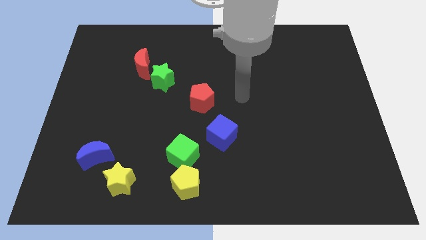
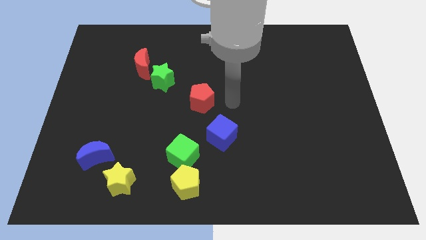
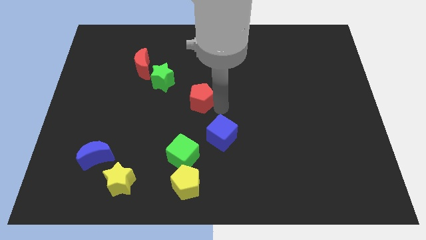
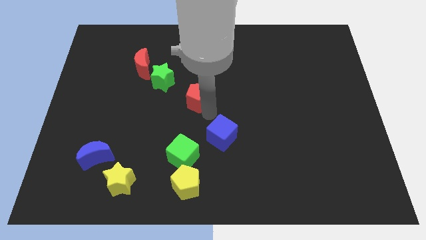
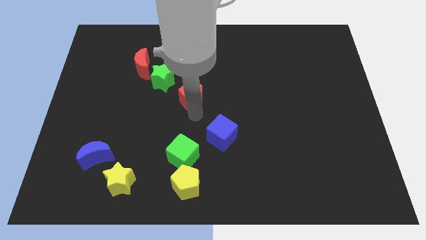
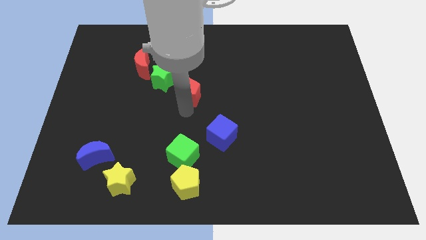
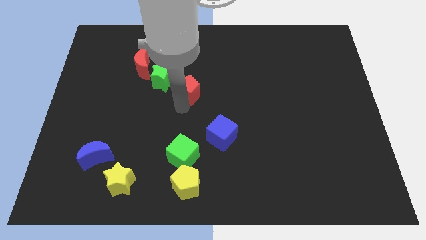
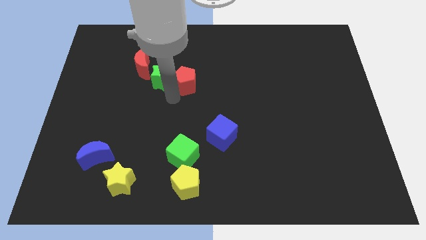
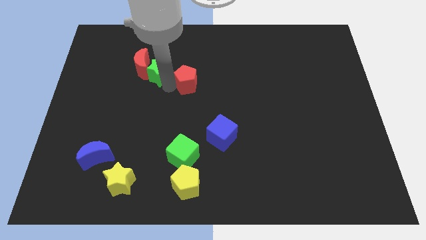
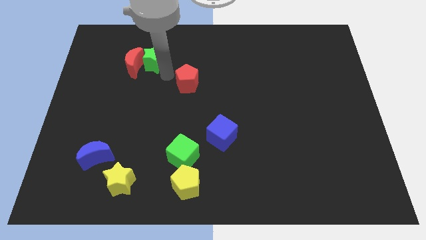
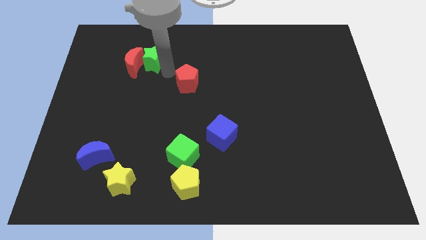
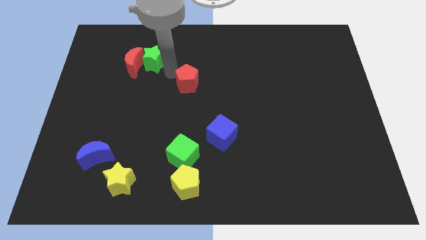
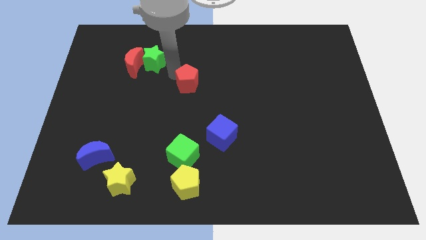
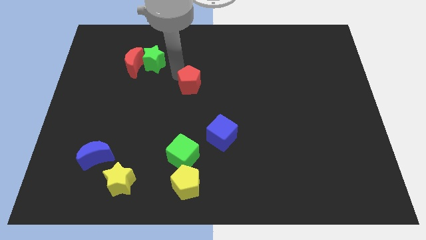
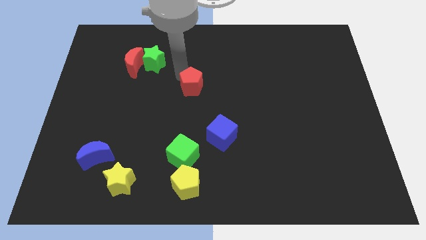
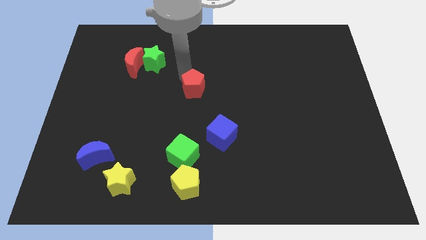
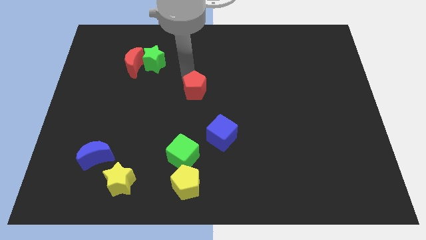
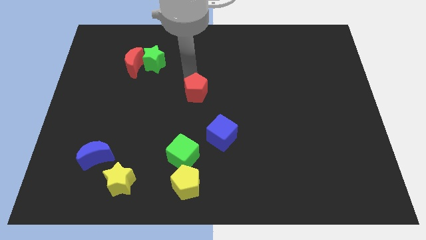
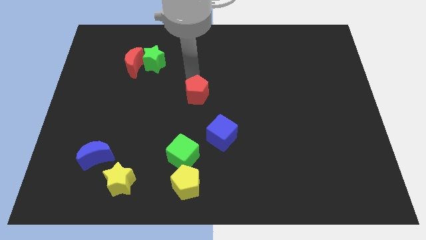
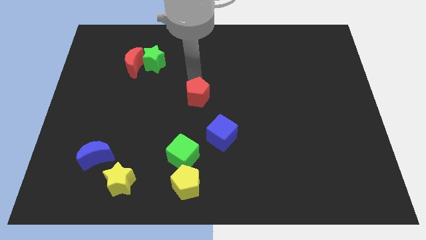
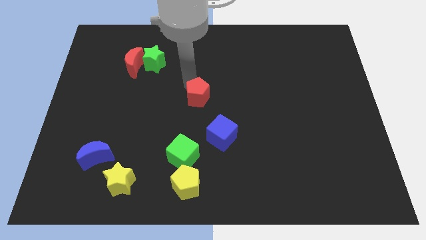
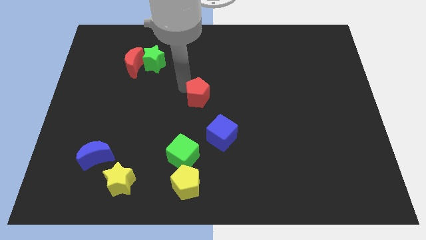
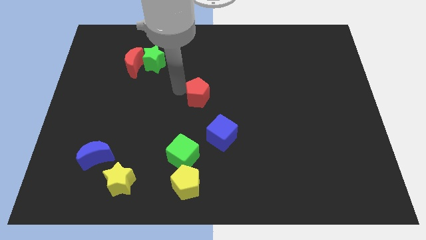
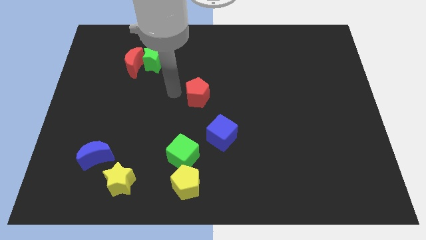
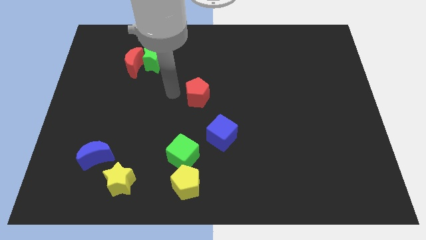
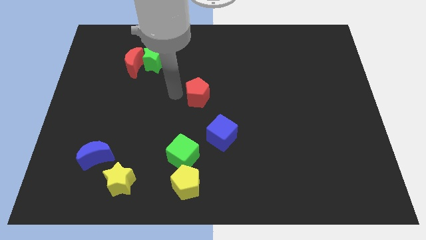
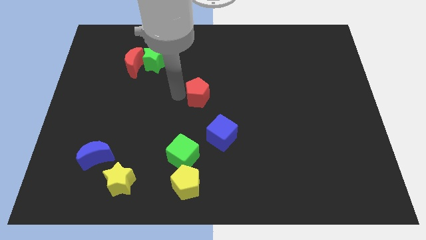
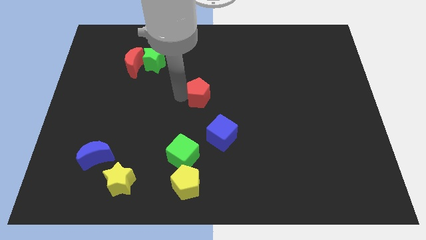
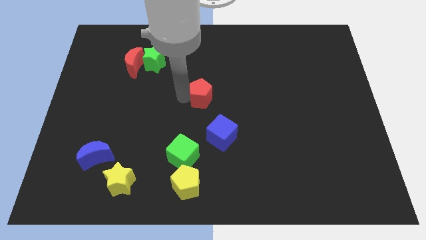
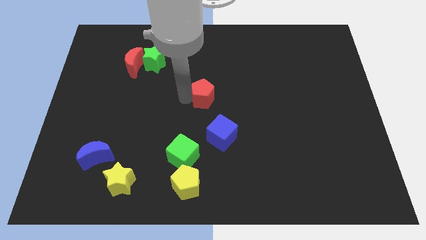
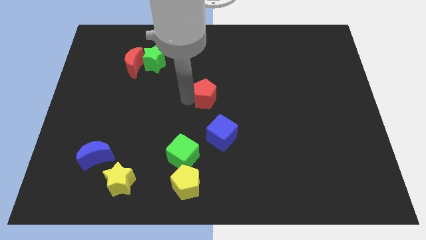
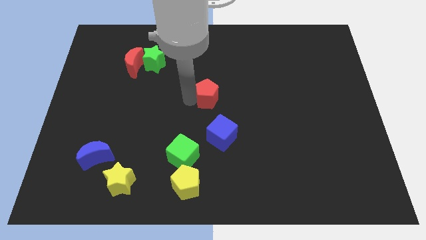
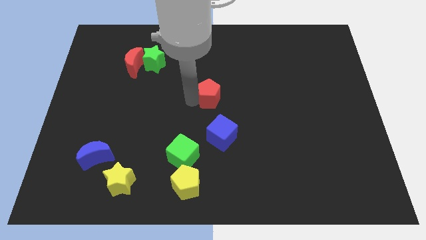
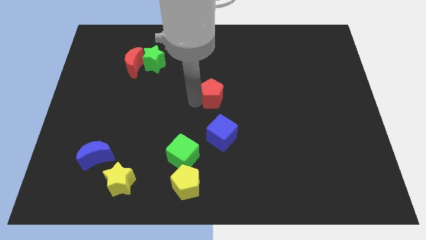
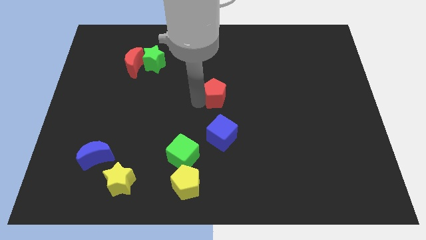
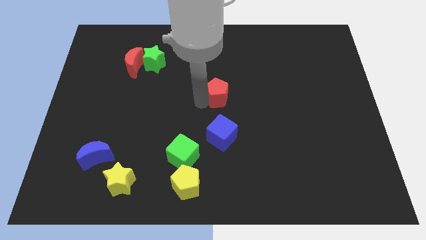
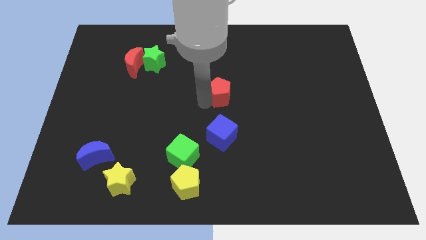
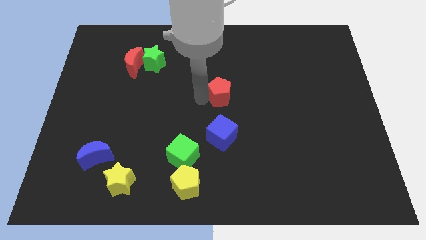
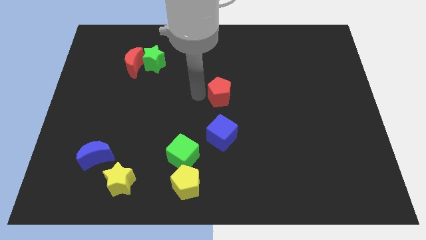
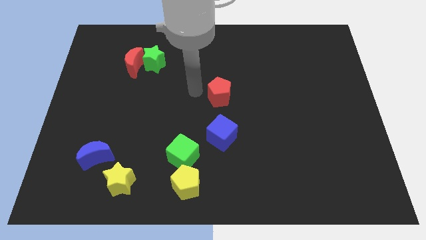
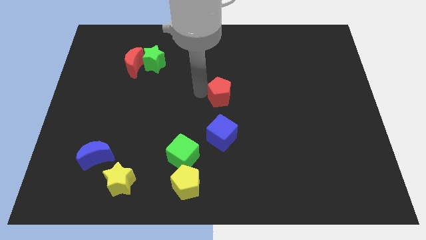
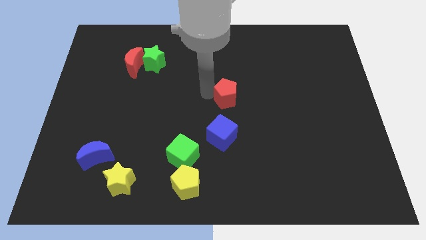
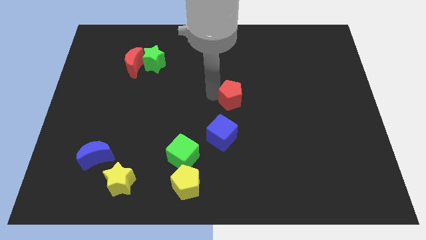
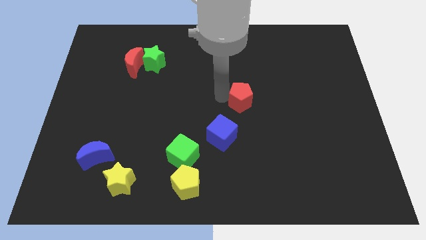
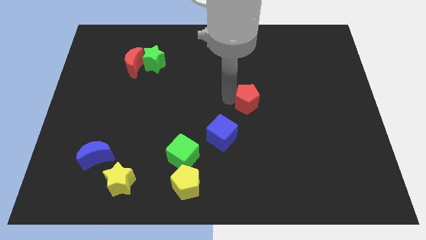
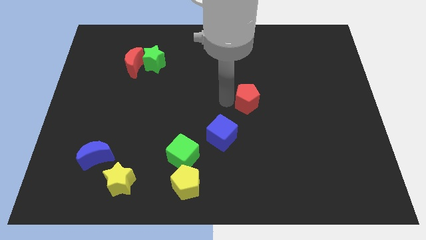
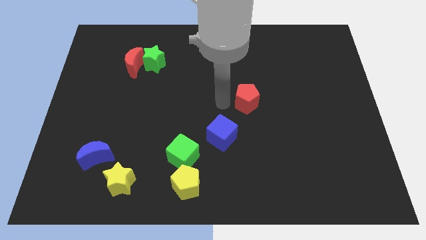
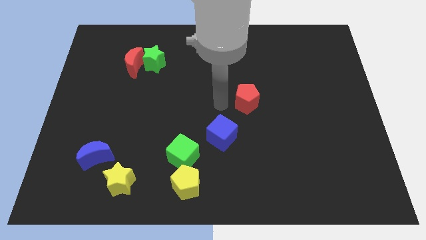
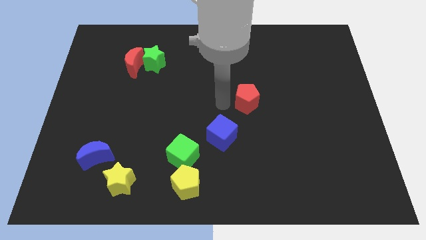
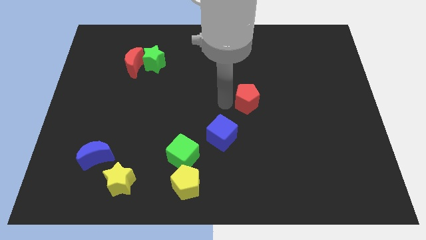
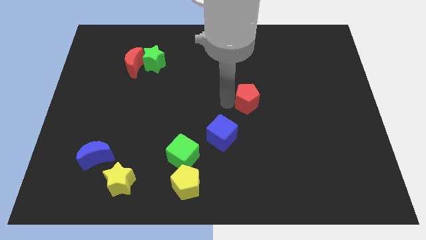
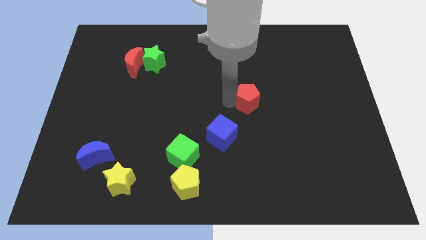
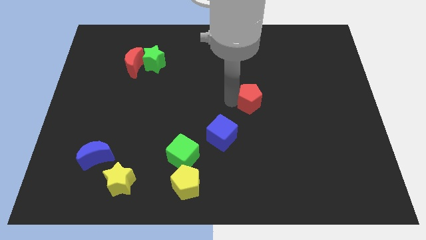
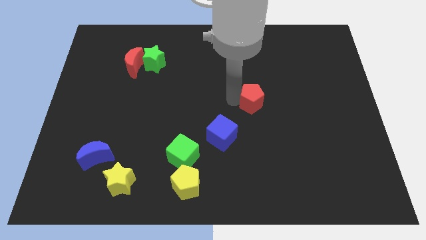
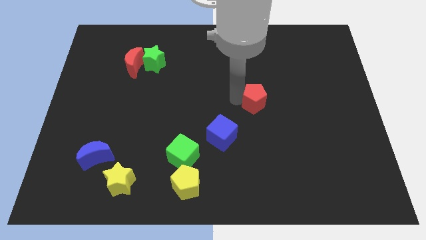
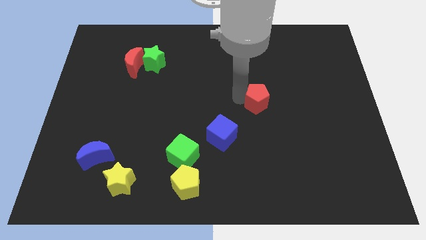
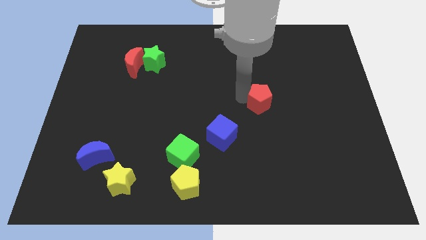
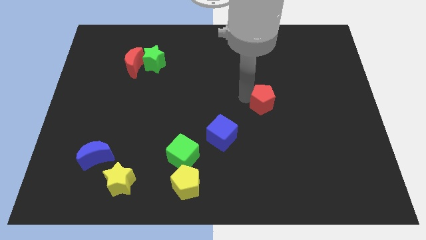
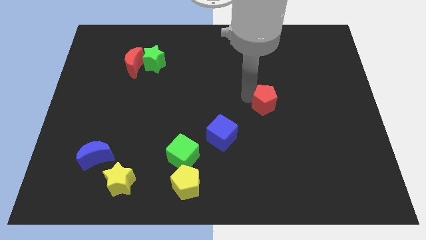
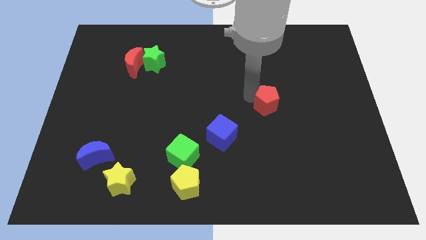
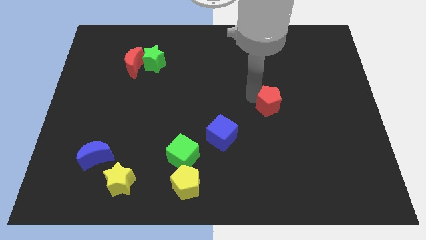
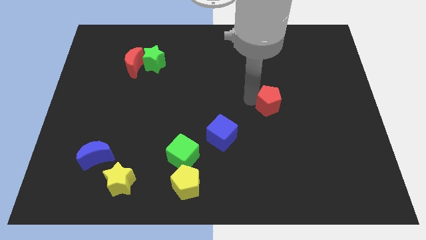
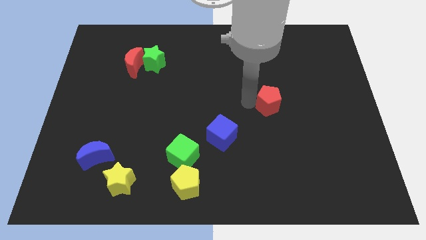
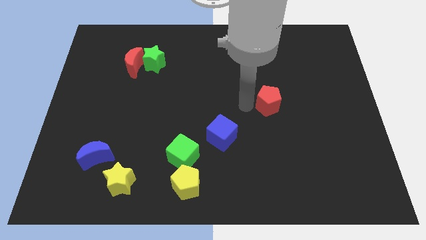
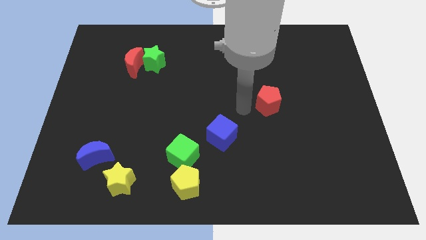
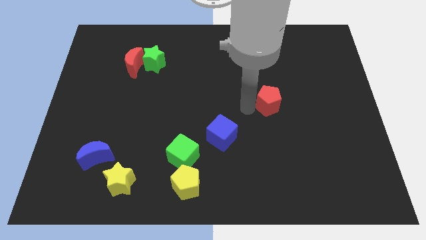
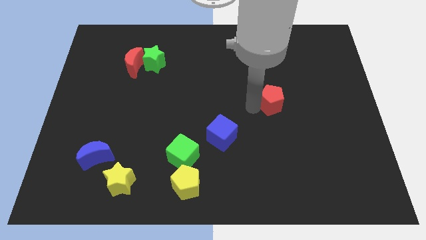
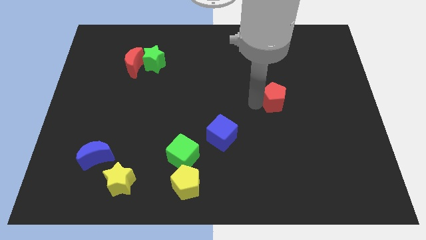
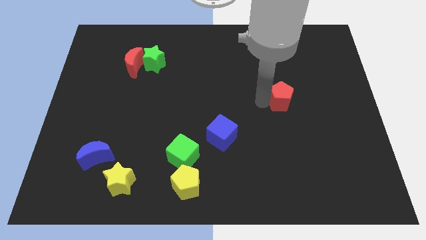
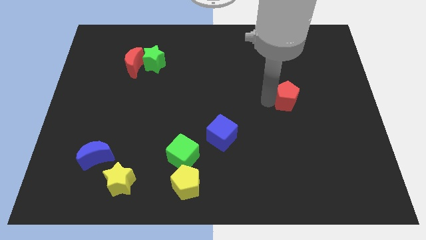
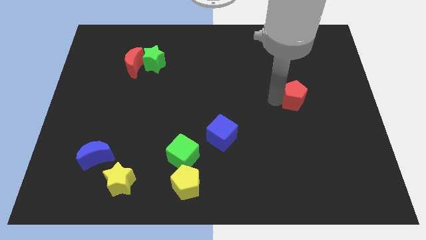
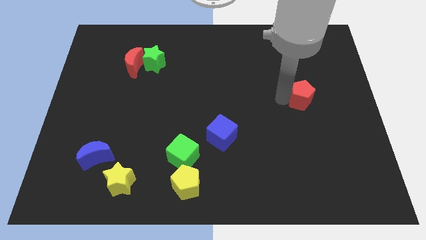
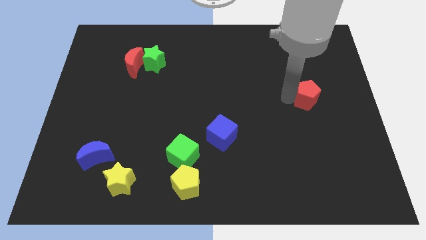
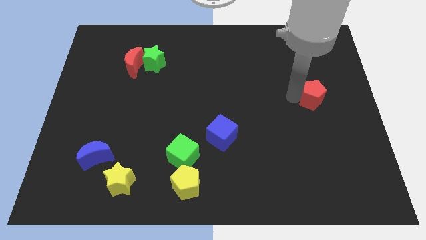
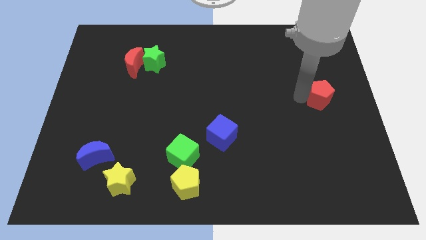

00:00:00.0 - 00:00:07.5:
put the red pentagon to the right side of the board
